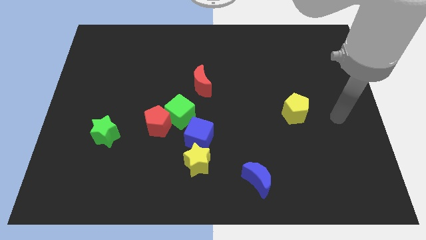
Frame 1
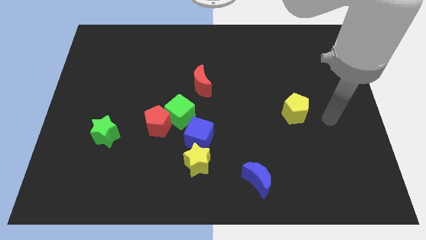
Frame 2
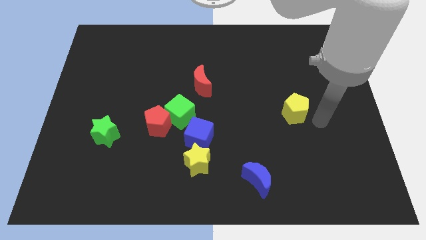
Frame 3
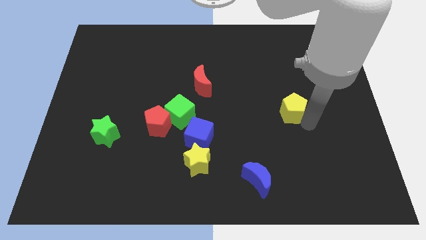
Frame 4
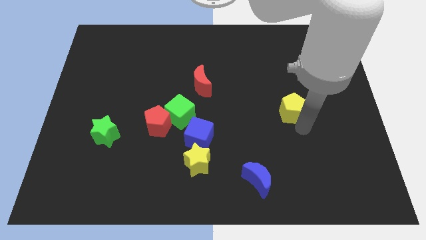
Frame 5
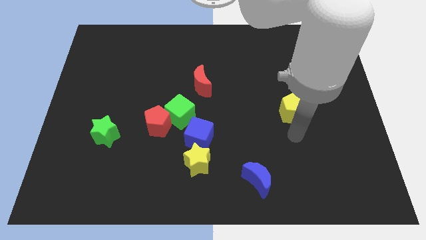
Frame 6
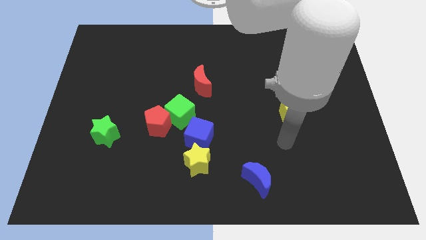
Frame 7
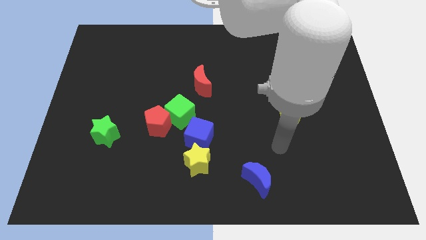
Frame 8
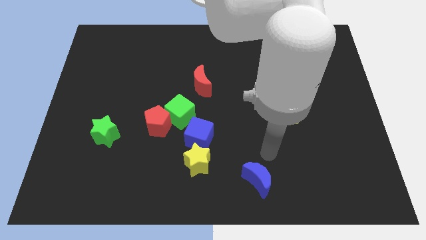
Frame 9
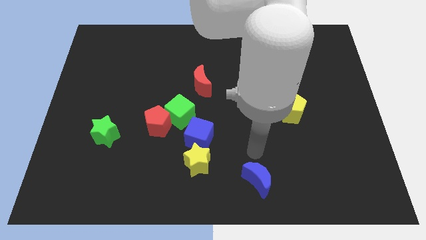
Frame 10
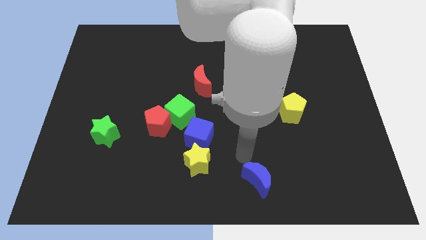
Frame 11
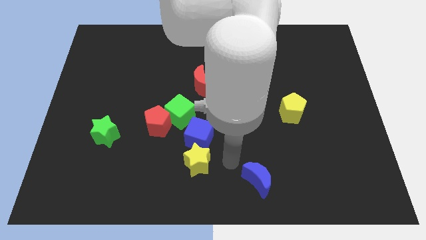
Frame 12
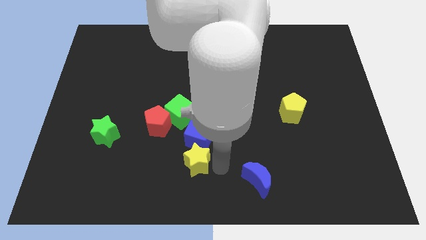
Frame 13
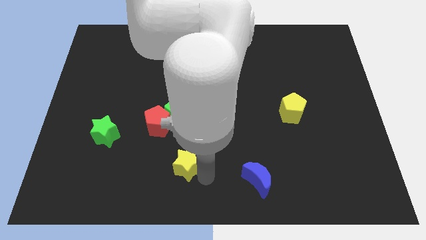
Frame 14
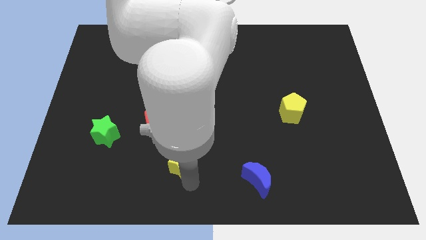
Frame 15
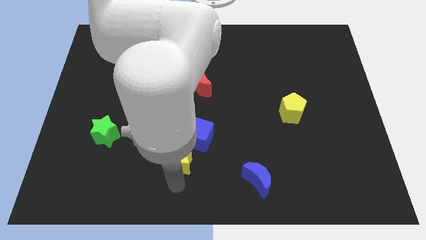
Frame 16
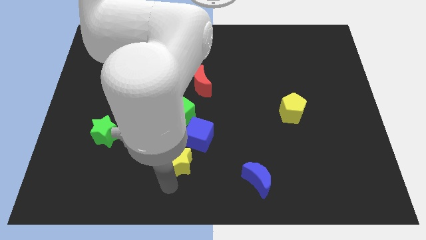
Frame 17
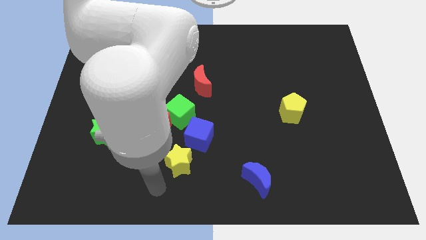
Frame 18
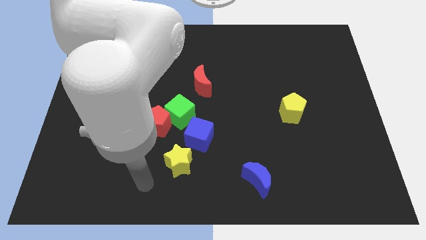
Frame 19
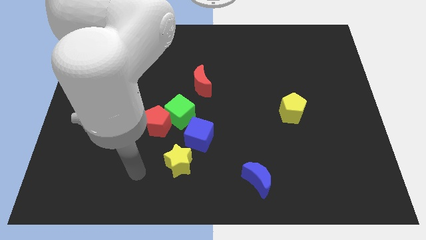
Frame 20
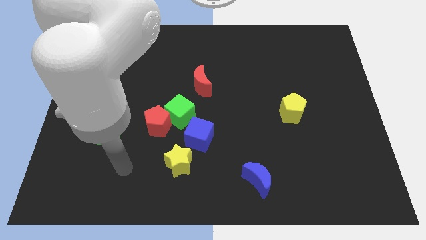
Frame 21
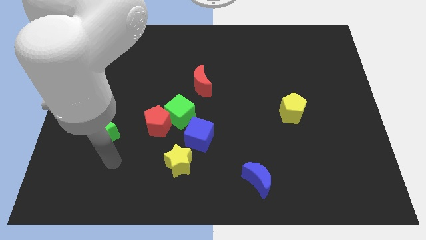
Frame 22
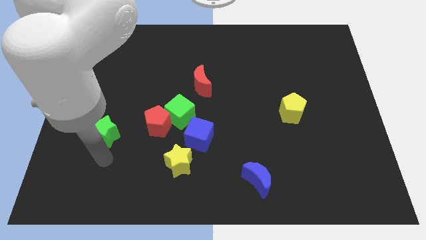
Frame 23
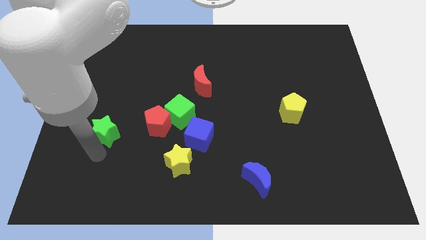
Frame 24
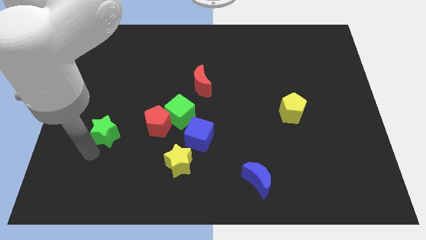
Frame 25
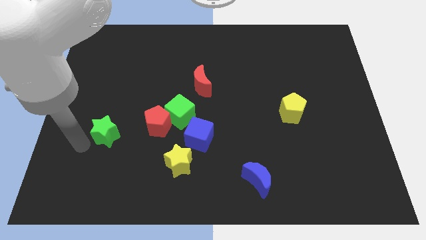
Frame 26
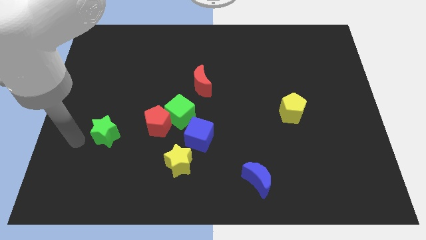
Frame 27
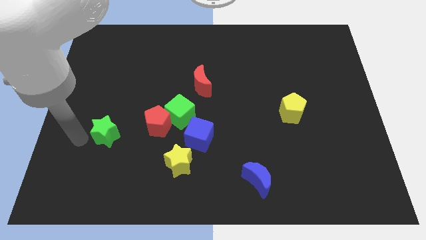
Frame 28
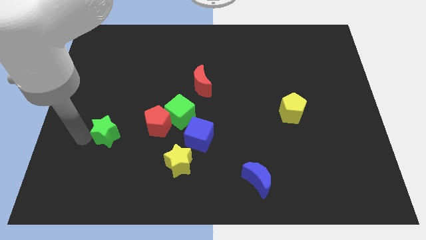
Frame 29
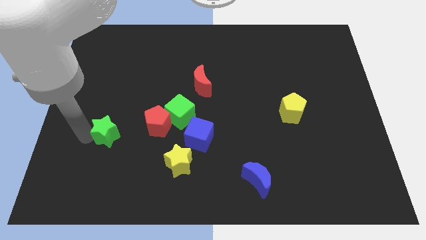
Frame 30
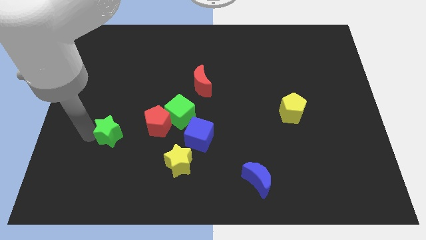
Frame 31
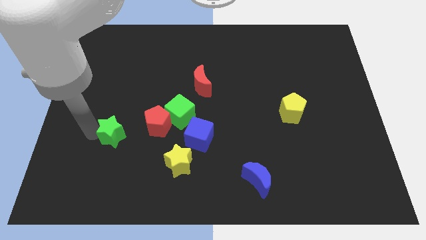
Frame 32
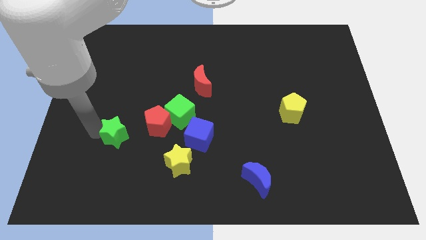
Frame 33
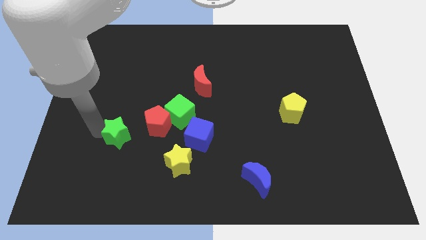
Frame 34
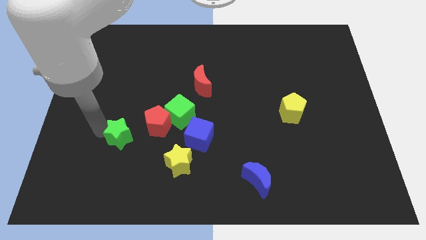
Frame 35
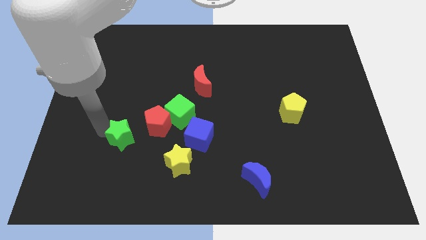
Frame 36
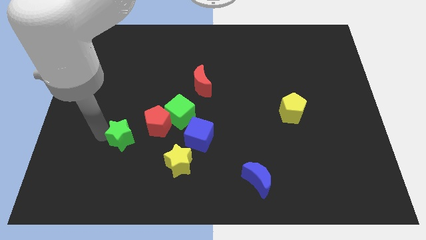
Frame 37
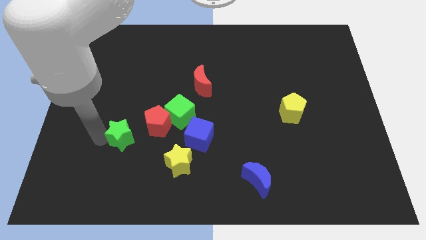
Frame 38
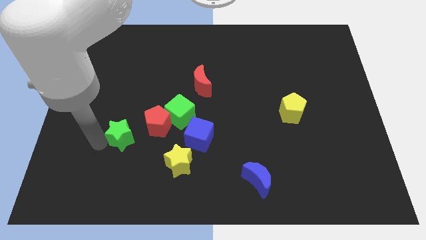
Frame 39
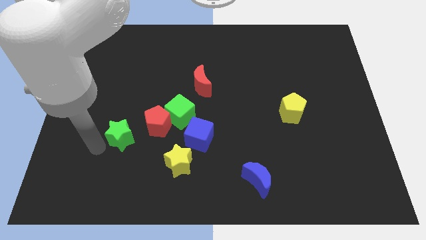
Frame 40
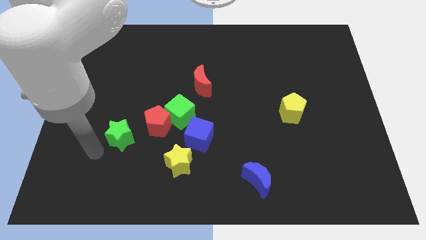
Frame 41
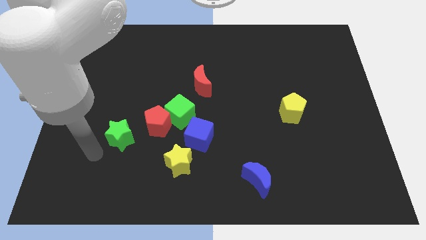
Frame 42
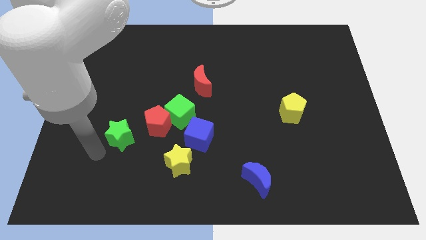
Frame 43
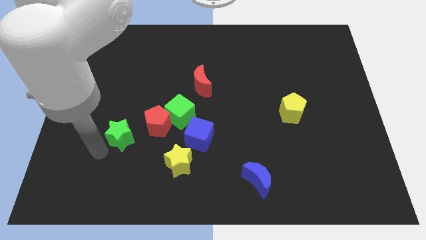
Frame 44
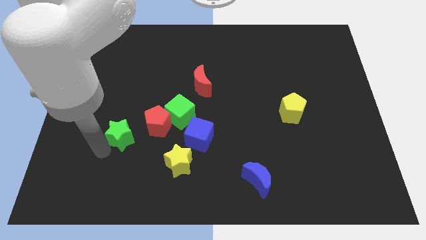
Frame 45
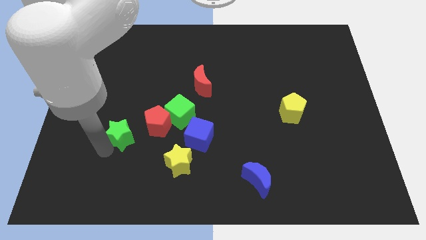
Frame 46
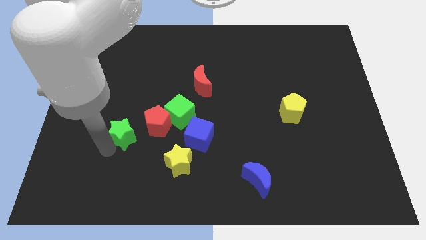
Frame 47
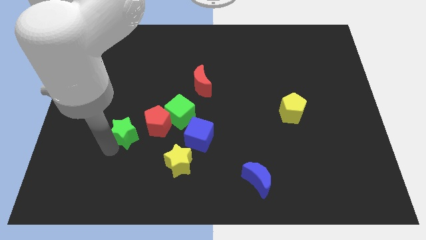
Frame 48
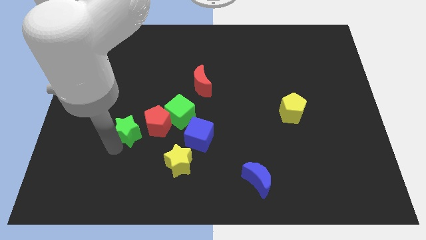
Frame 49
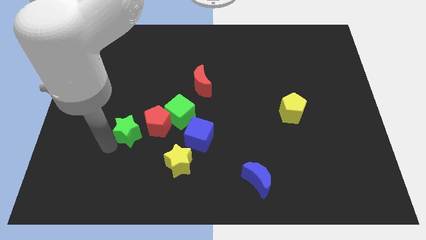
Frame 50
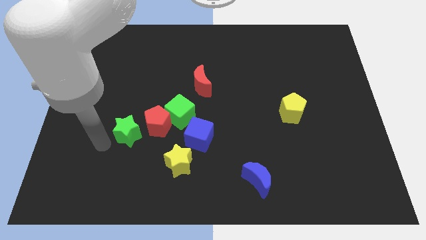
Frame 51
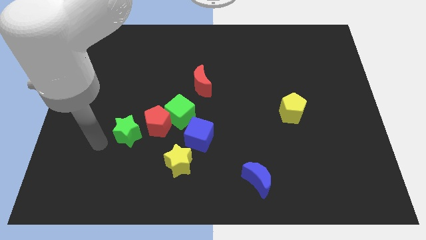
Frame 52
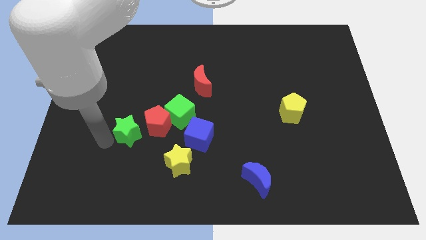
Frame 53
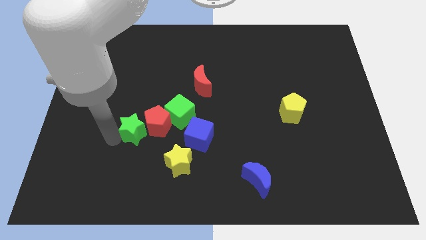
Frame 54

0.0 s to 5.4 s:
put the green star close to the red pentagon

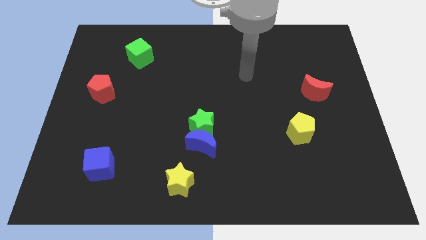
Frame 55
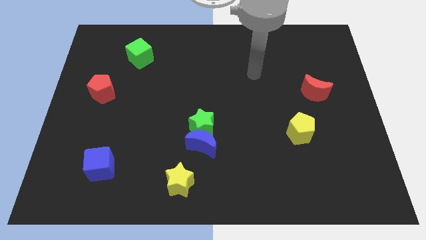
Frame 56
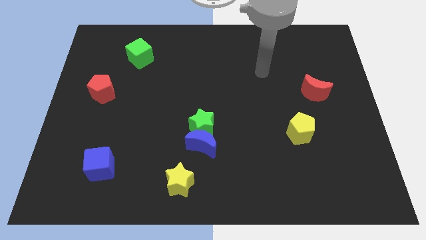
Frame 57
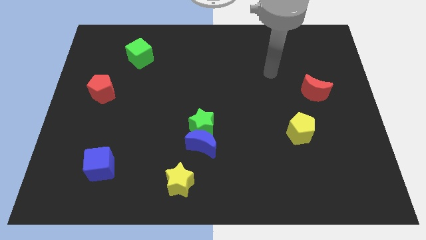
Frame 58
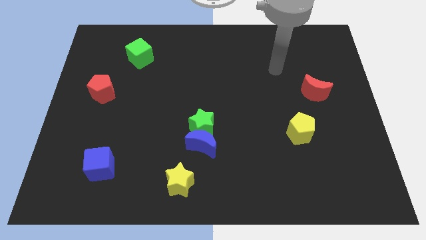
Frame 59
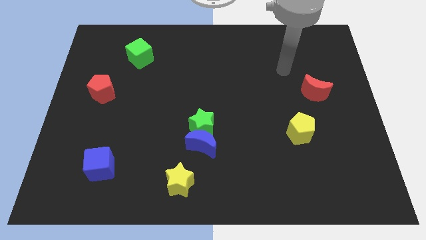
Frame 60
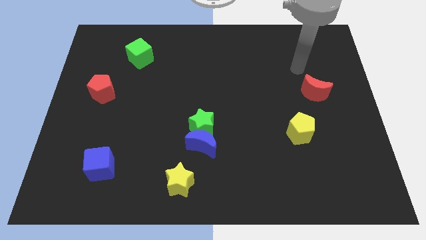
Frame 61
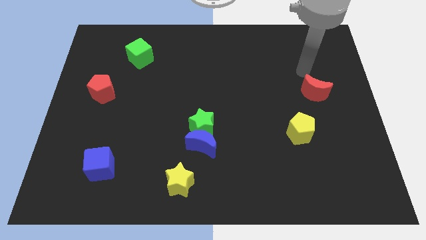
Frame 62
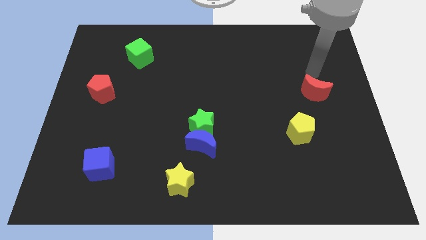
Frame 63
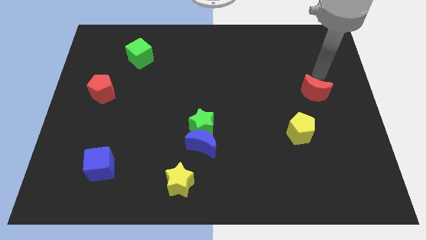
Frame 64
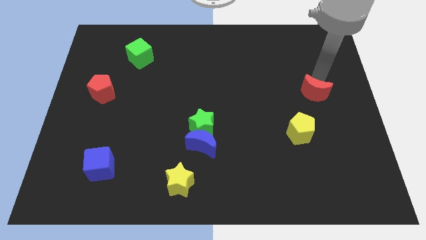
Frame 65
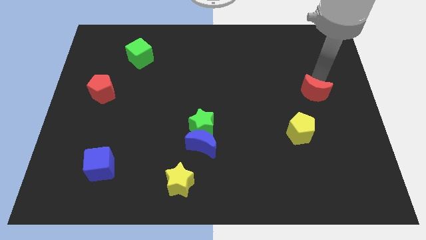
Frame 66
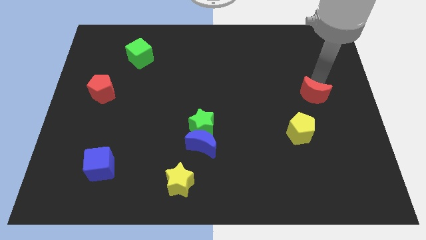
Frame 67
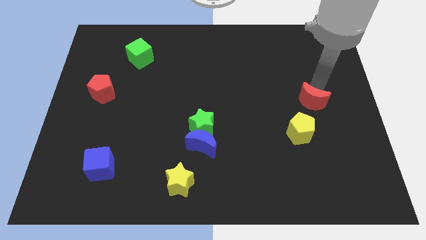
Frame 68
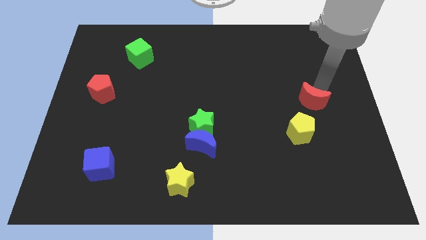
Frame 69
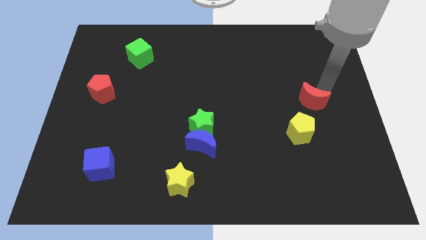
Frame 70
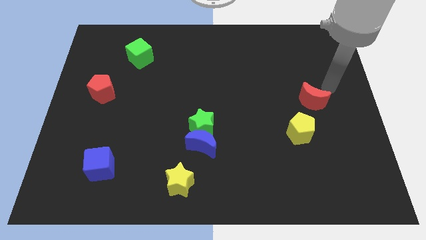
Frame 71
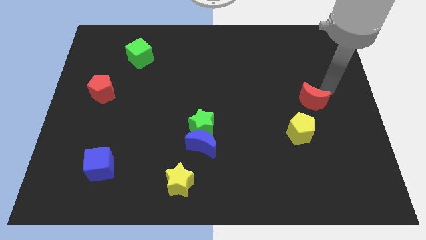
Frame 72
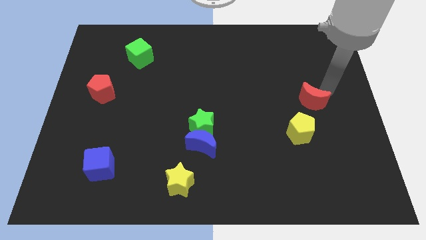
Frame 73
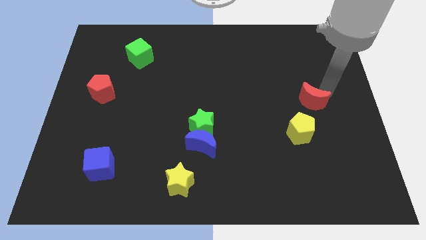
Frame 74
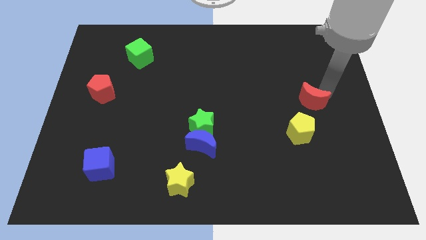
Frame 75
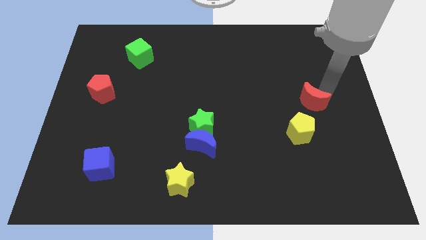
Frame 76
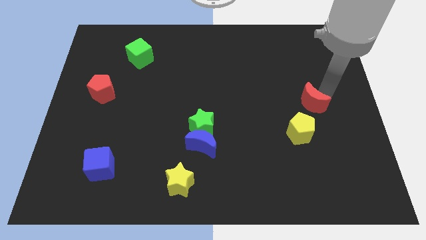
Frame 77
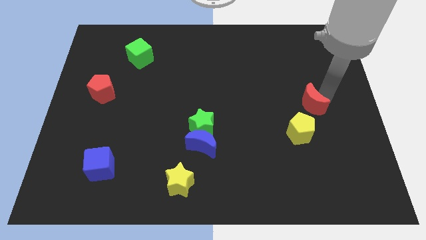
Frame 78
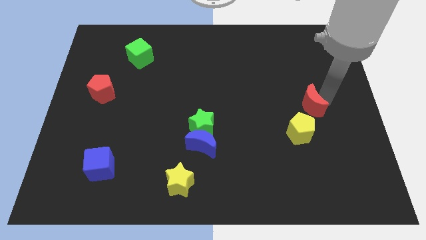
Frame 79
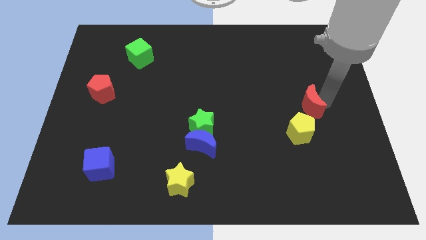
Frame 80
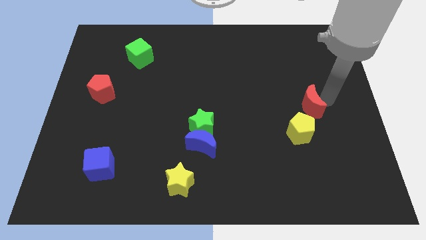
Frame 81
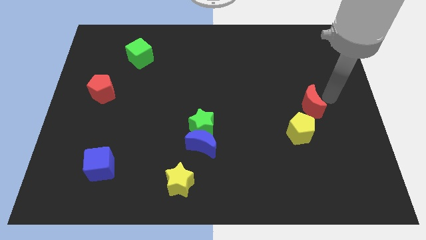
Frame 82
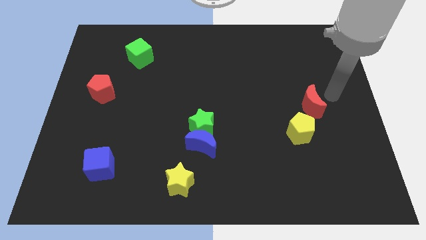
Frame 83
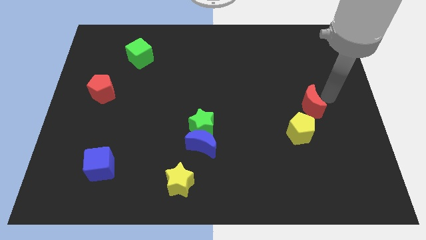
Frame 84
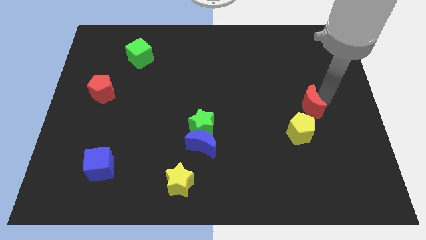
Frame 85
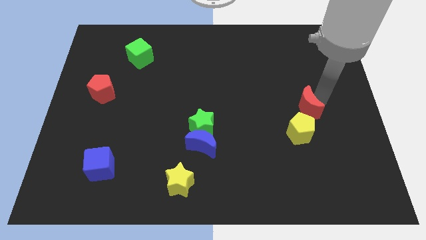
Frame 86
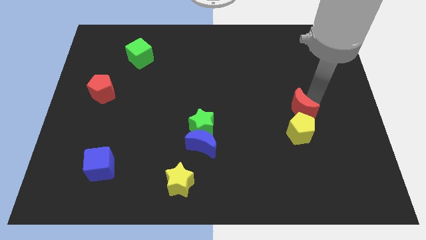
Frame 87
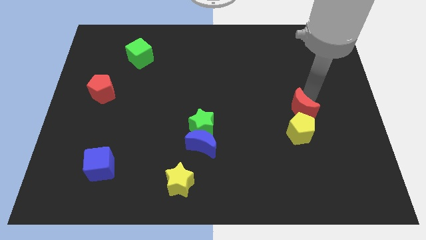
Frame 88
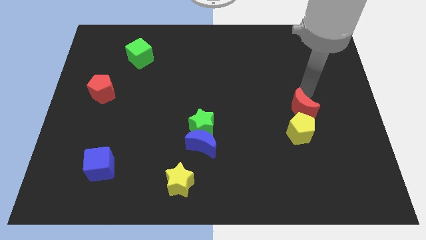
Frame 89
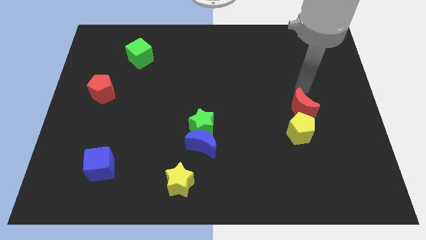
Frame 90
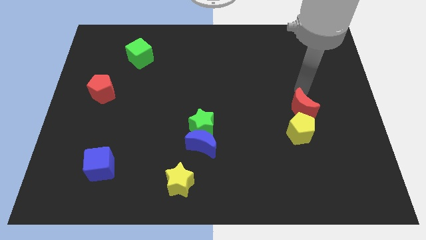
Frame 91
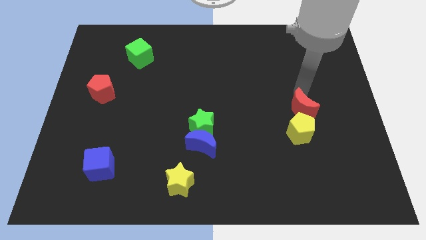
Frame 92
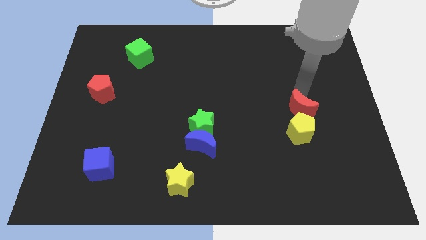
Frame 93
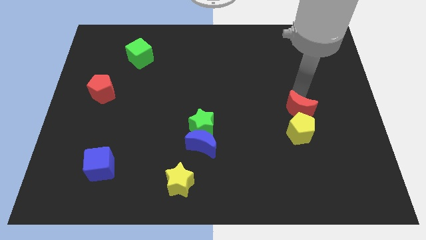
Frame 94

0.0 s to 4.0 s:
push the red moon towards the yellow pentagon
